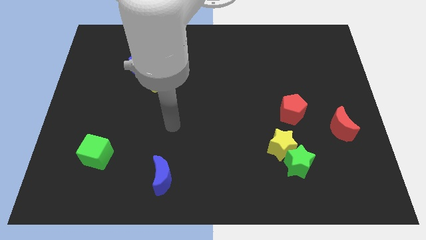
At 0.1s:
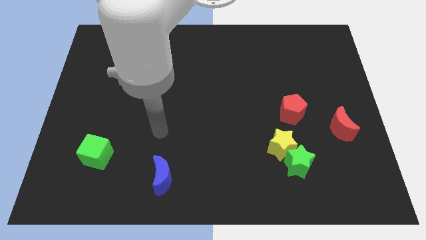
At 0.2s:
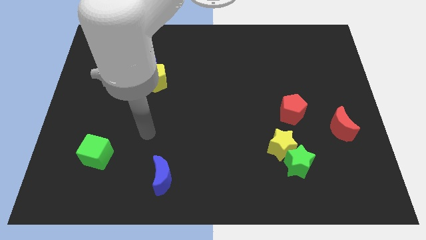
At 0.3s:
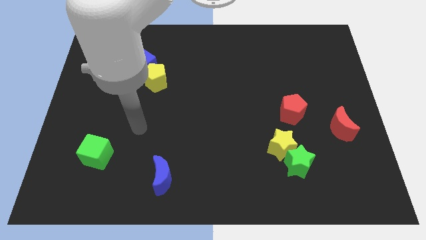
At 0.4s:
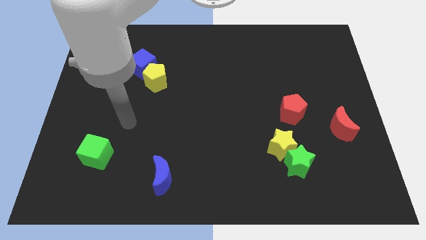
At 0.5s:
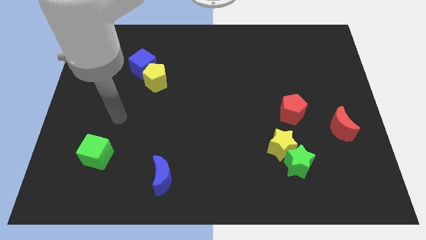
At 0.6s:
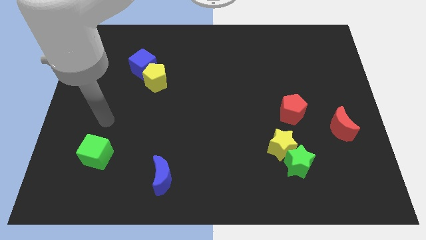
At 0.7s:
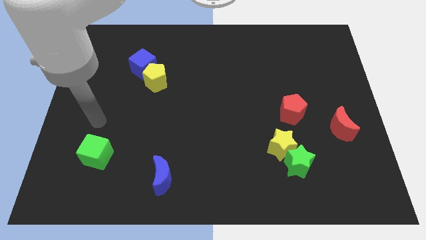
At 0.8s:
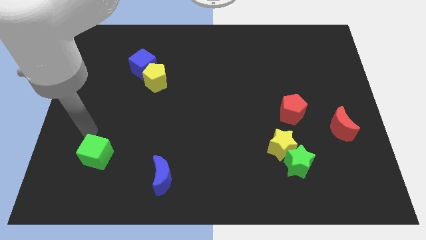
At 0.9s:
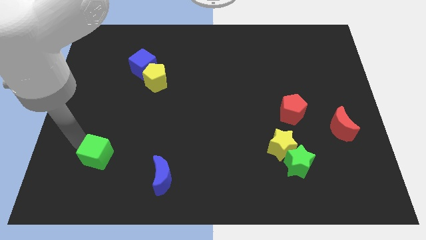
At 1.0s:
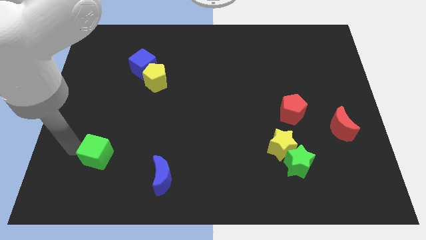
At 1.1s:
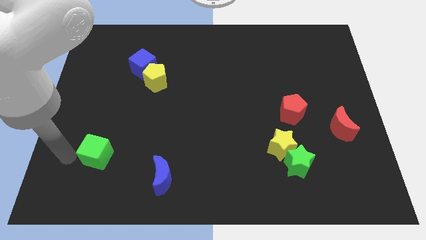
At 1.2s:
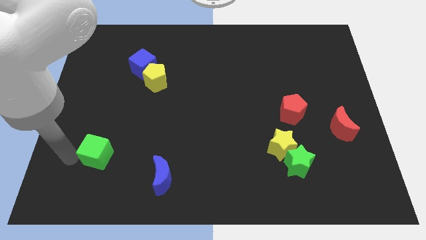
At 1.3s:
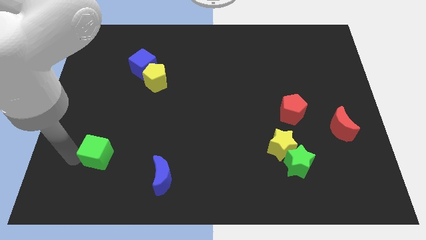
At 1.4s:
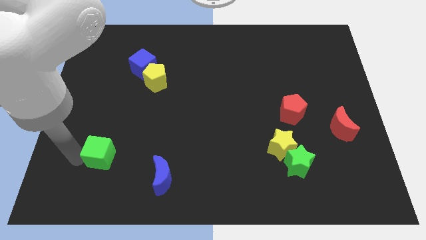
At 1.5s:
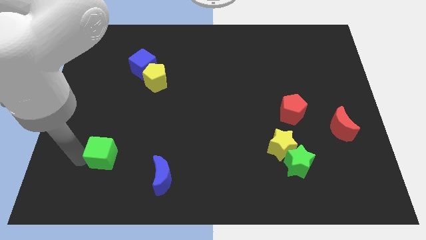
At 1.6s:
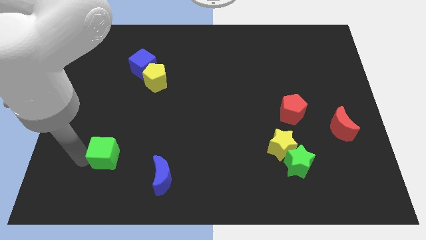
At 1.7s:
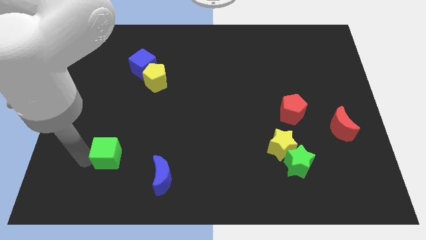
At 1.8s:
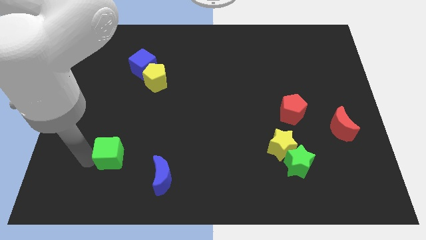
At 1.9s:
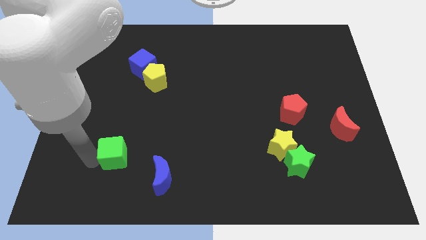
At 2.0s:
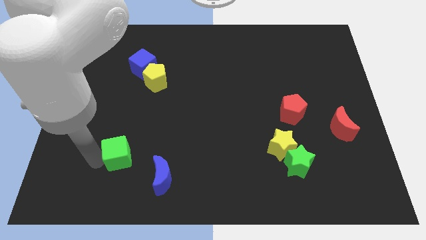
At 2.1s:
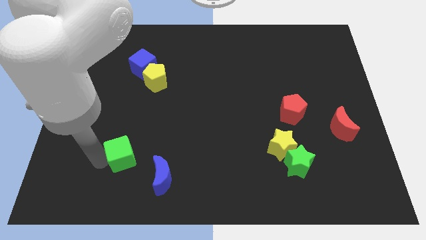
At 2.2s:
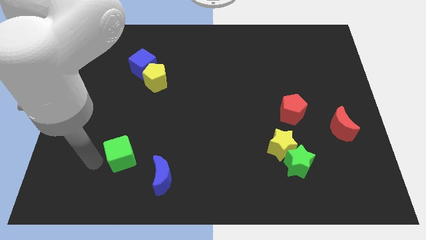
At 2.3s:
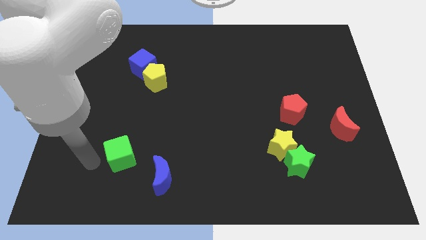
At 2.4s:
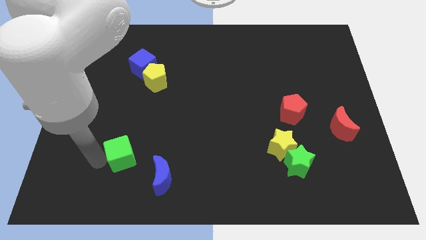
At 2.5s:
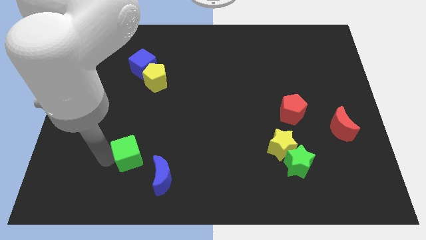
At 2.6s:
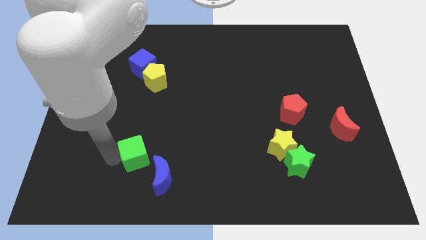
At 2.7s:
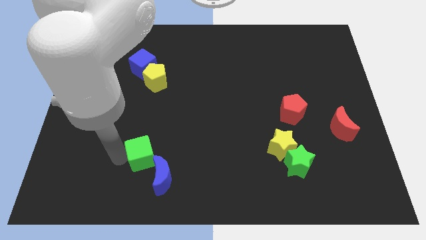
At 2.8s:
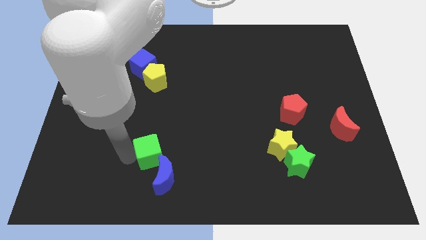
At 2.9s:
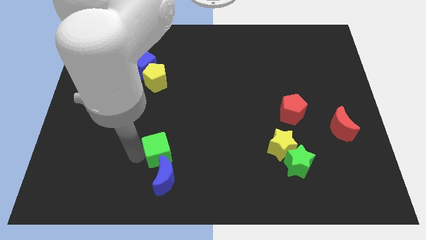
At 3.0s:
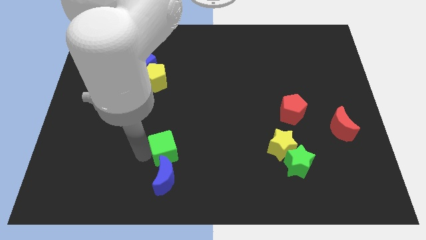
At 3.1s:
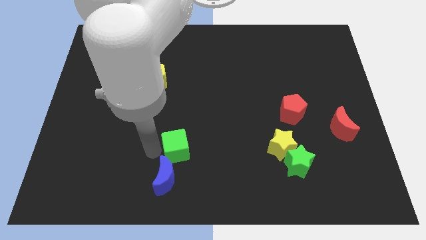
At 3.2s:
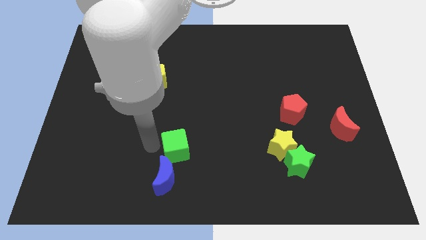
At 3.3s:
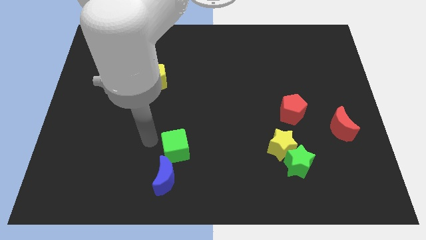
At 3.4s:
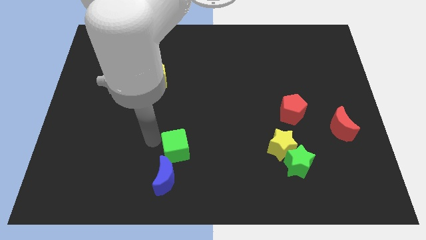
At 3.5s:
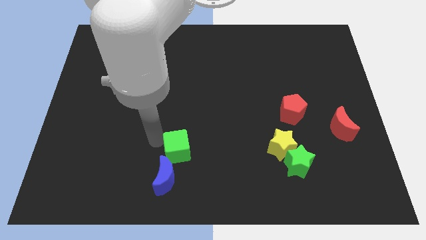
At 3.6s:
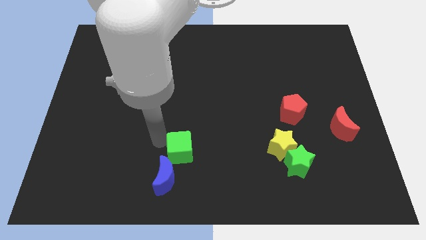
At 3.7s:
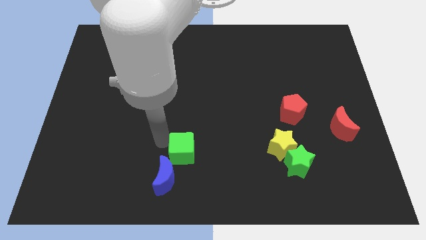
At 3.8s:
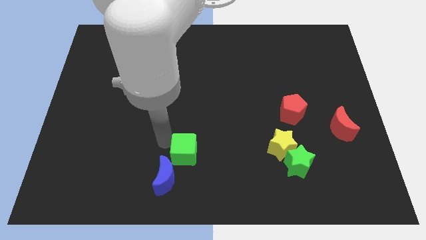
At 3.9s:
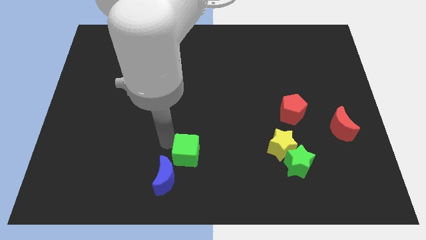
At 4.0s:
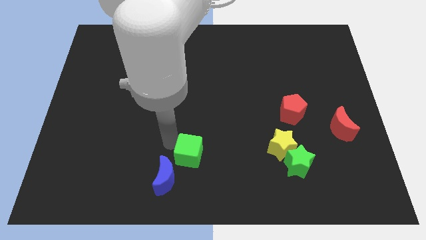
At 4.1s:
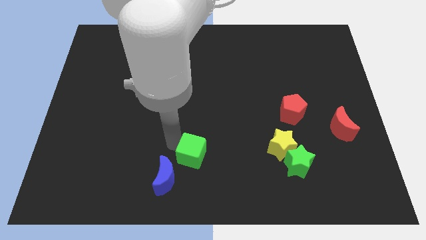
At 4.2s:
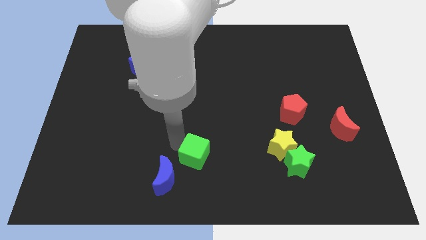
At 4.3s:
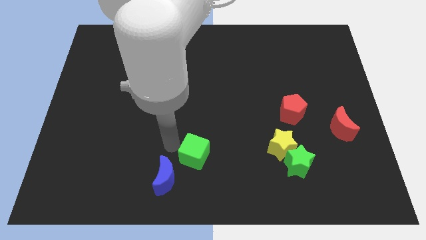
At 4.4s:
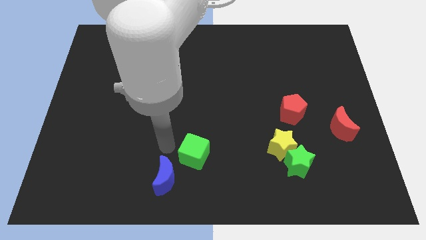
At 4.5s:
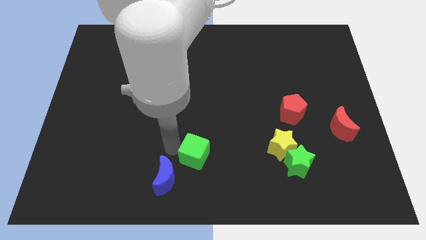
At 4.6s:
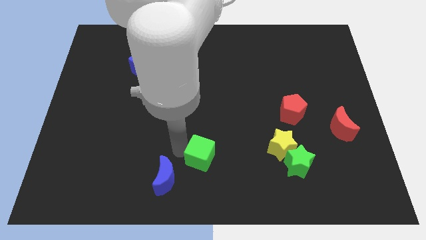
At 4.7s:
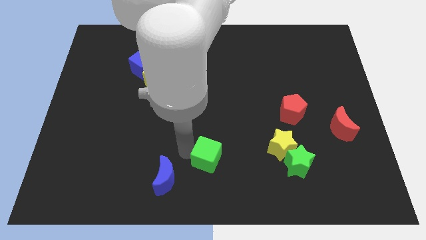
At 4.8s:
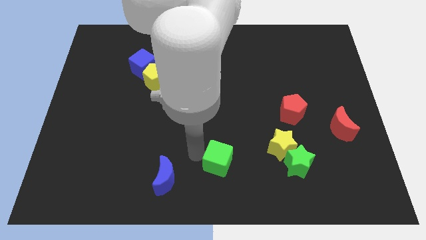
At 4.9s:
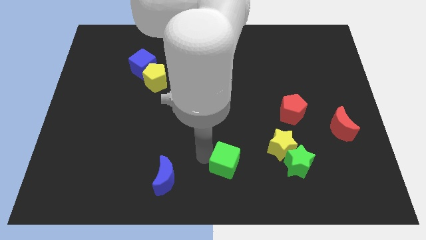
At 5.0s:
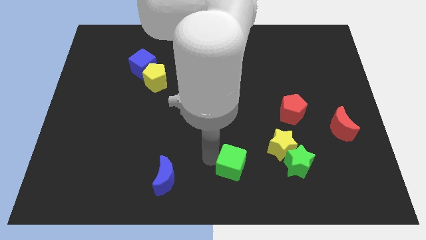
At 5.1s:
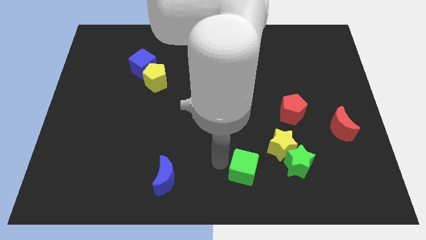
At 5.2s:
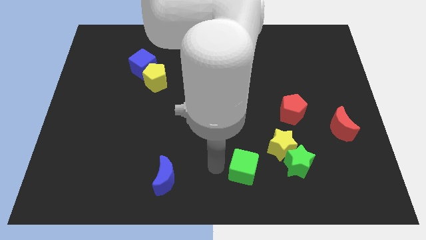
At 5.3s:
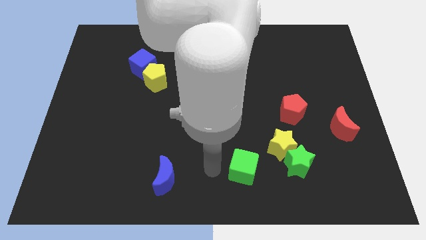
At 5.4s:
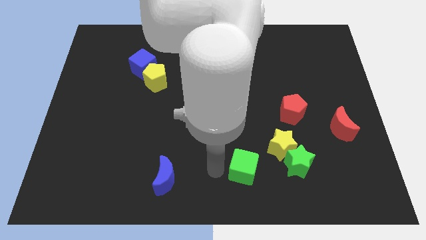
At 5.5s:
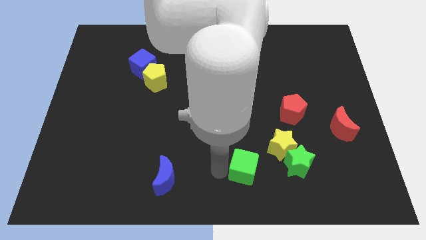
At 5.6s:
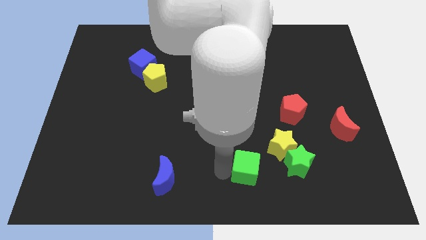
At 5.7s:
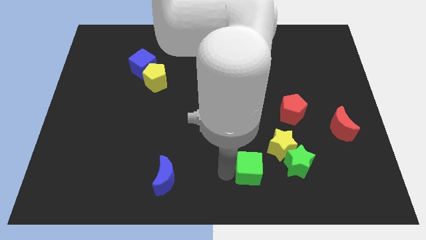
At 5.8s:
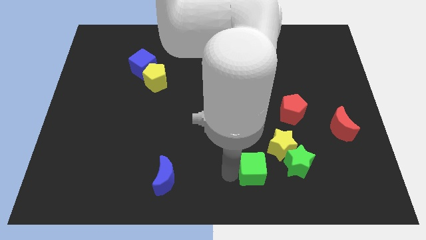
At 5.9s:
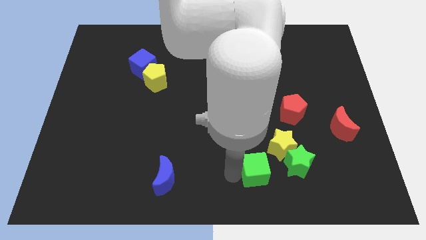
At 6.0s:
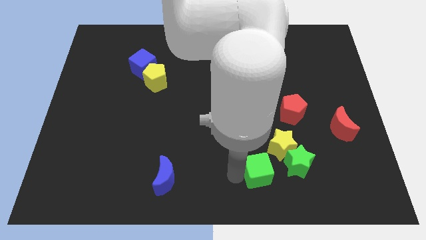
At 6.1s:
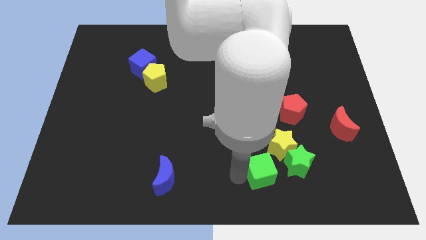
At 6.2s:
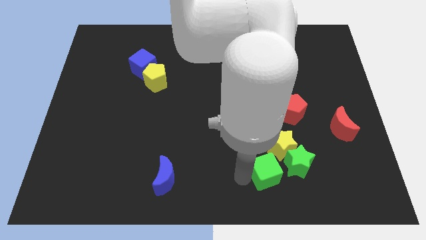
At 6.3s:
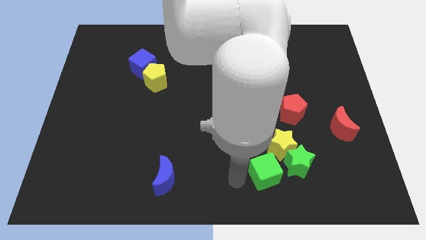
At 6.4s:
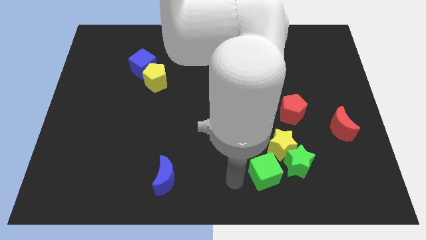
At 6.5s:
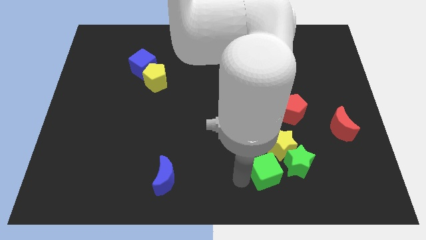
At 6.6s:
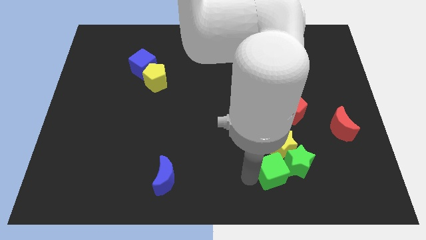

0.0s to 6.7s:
put the green cube to the green star

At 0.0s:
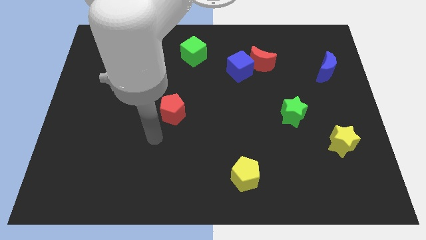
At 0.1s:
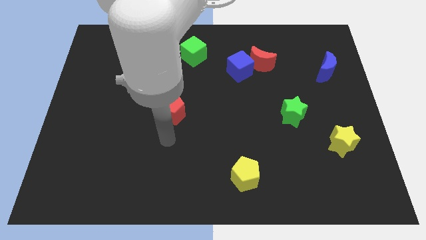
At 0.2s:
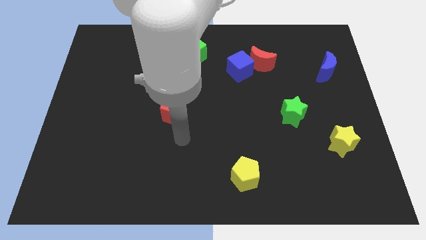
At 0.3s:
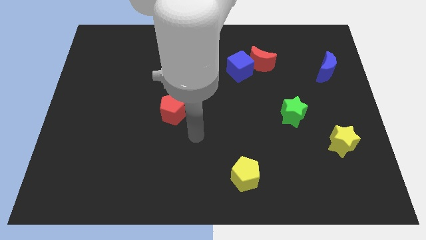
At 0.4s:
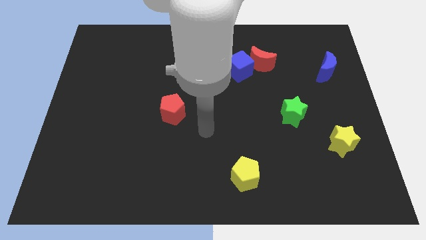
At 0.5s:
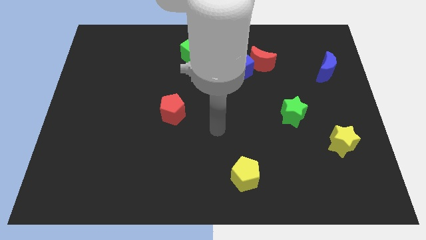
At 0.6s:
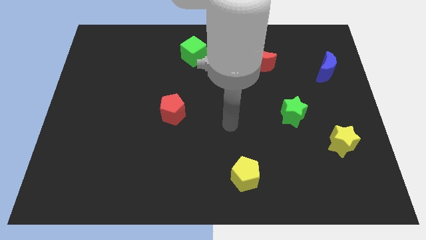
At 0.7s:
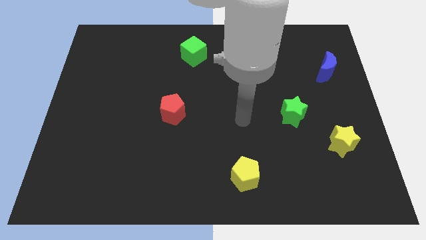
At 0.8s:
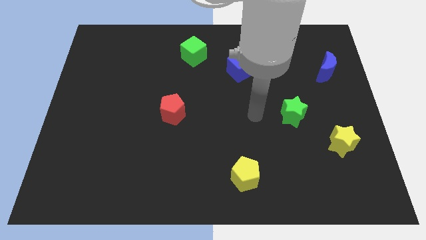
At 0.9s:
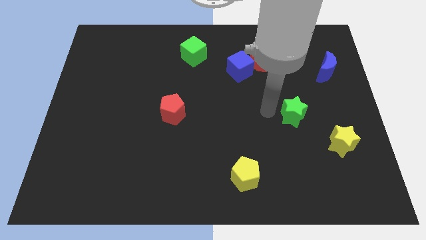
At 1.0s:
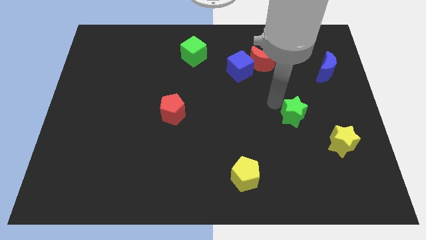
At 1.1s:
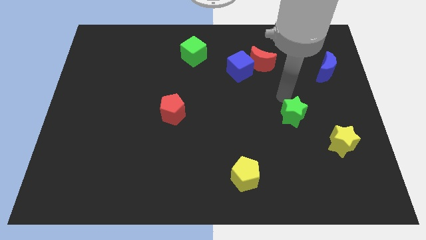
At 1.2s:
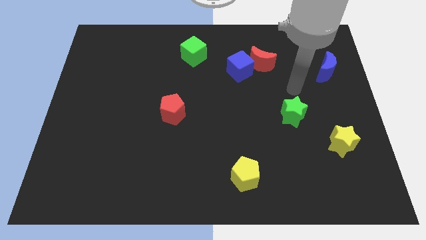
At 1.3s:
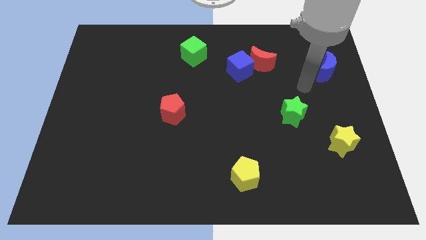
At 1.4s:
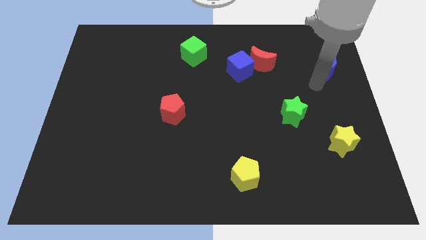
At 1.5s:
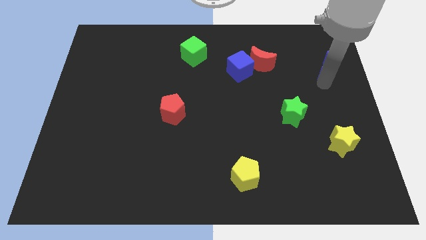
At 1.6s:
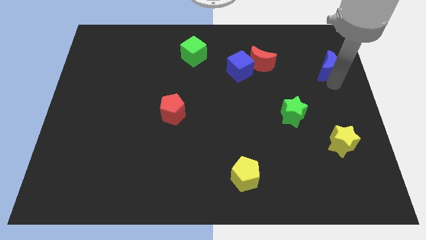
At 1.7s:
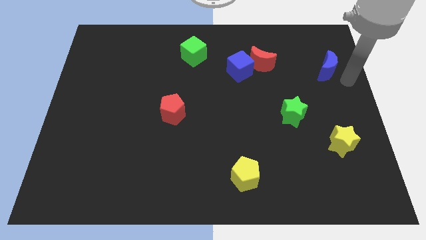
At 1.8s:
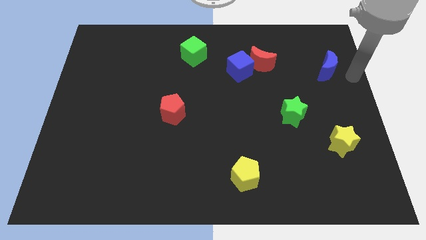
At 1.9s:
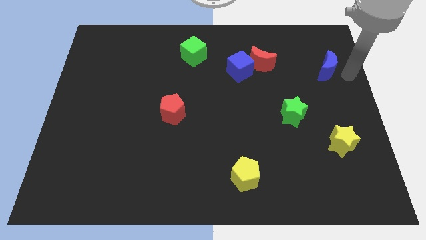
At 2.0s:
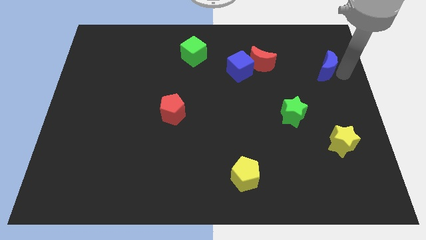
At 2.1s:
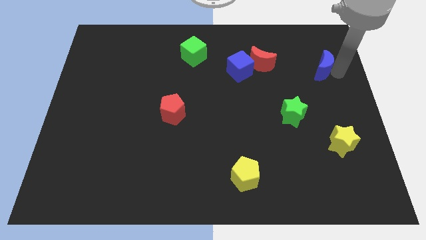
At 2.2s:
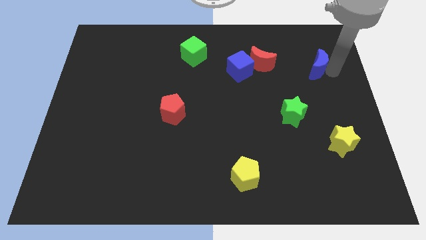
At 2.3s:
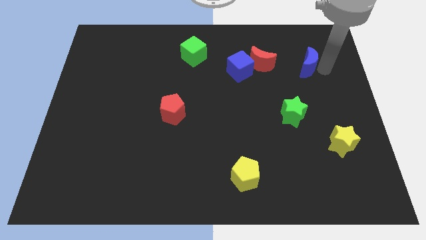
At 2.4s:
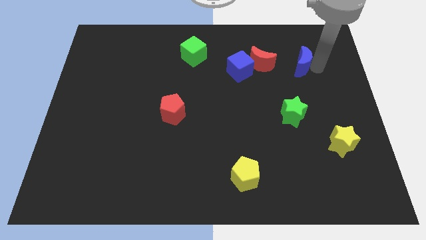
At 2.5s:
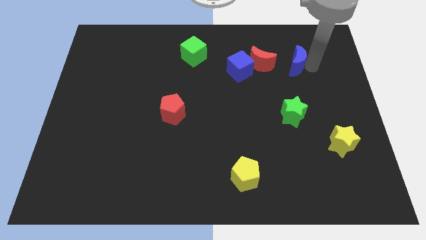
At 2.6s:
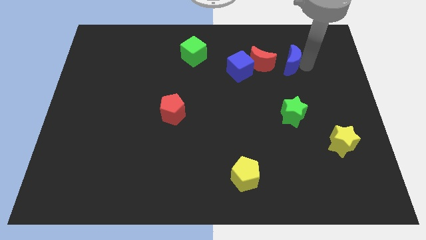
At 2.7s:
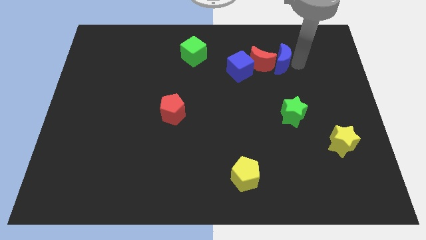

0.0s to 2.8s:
move the blue moon next to the red moon
